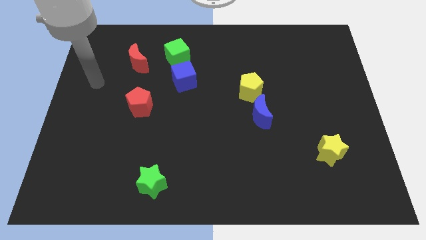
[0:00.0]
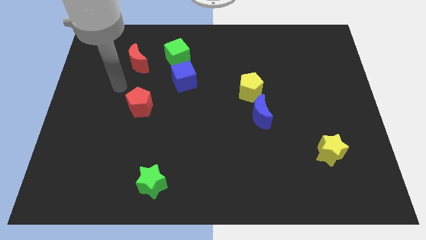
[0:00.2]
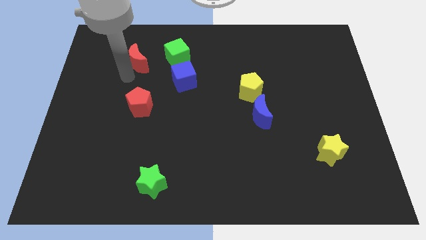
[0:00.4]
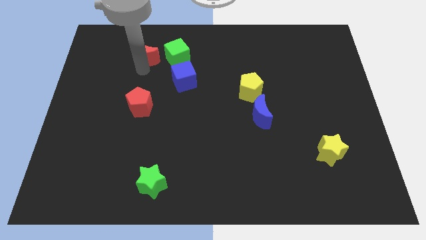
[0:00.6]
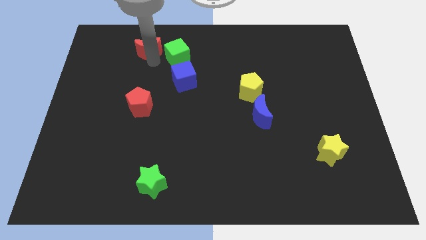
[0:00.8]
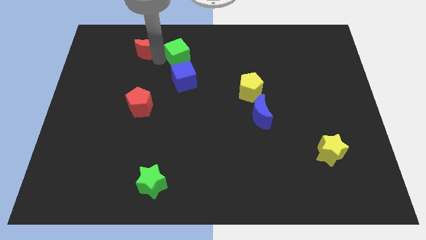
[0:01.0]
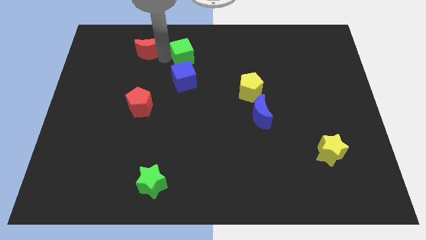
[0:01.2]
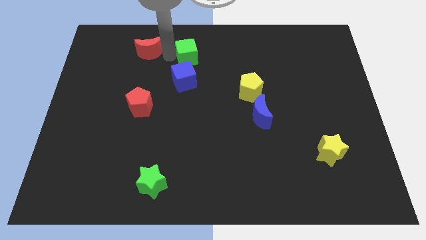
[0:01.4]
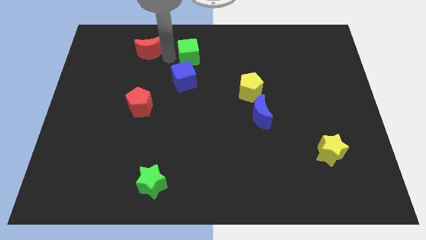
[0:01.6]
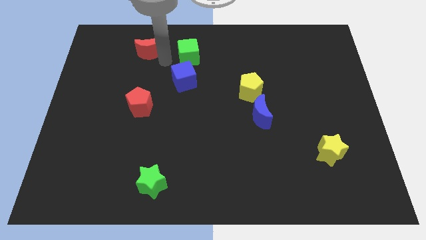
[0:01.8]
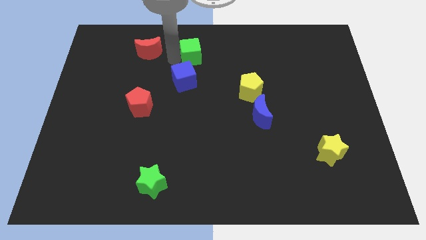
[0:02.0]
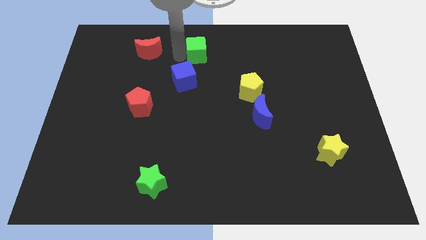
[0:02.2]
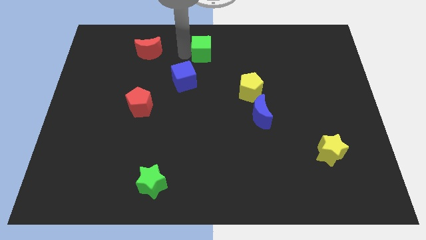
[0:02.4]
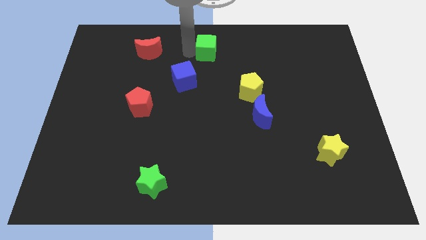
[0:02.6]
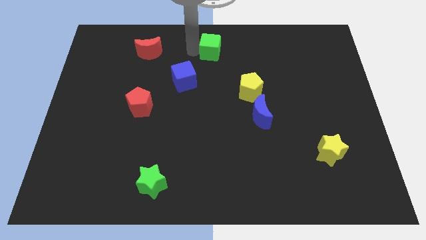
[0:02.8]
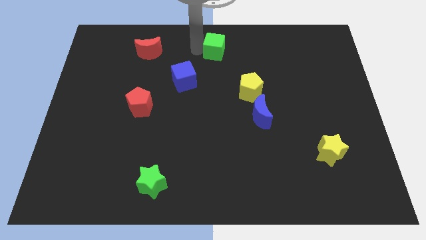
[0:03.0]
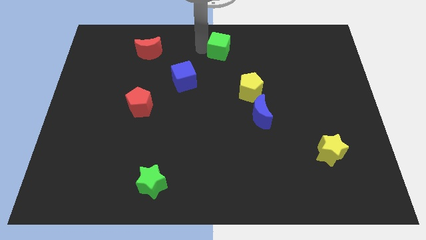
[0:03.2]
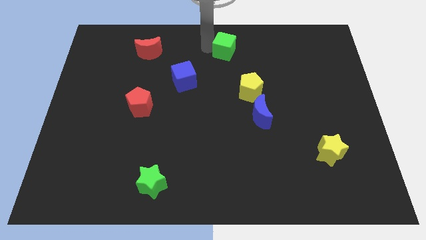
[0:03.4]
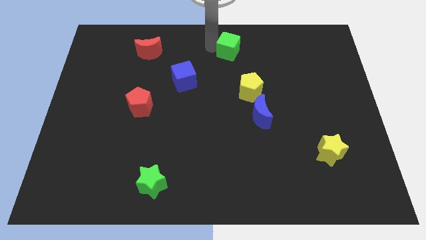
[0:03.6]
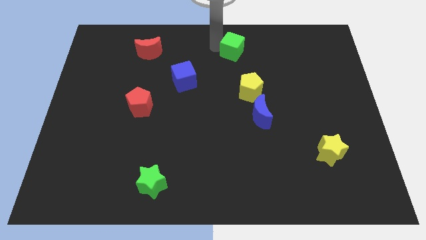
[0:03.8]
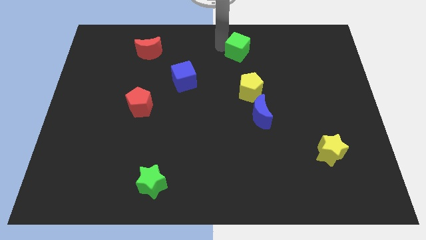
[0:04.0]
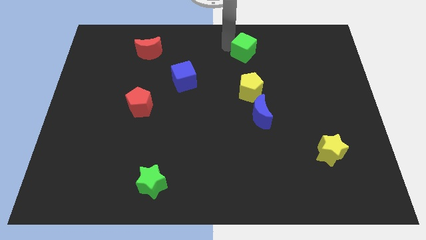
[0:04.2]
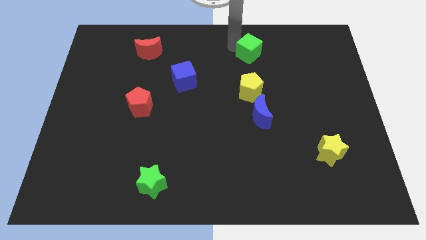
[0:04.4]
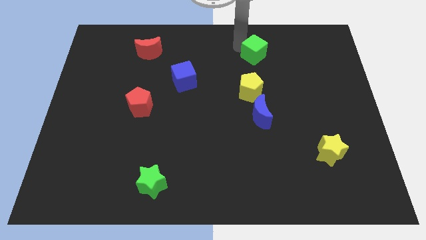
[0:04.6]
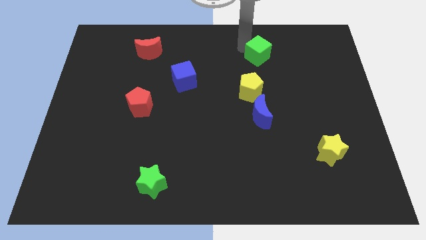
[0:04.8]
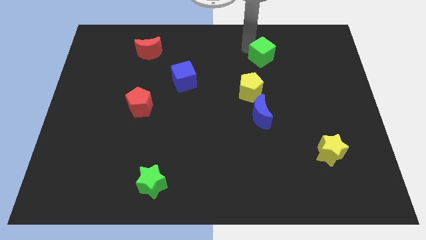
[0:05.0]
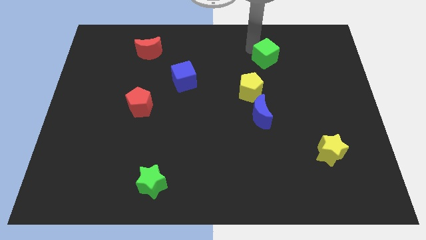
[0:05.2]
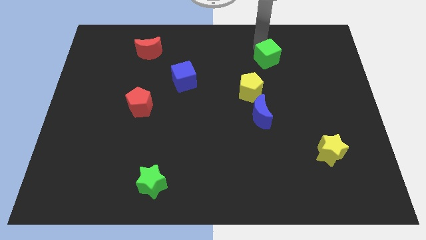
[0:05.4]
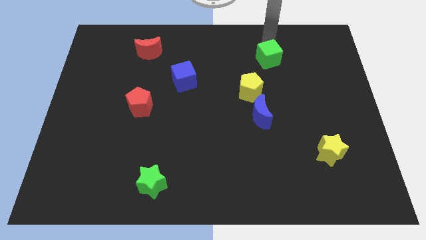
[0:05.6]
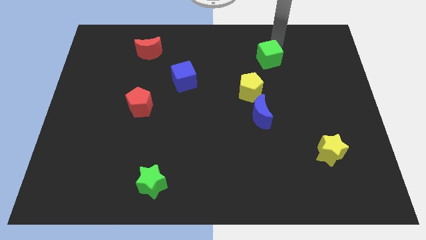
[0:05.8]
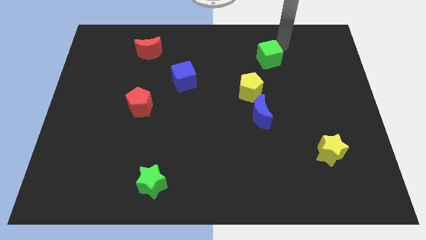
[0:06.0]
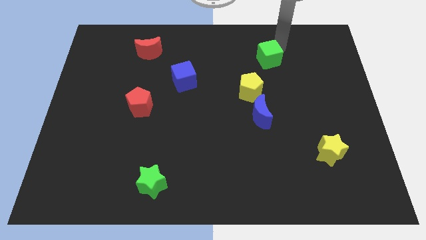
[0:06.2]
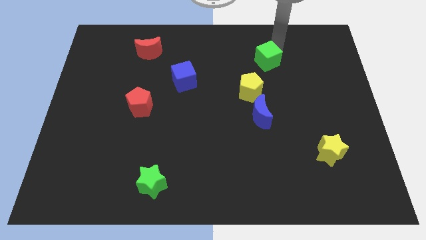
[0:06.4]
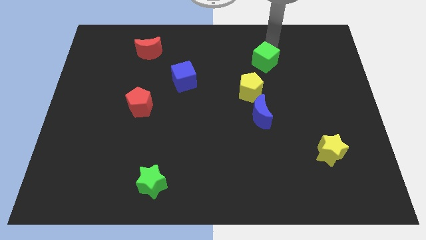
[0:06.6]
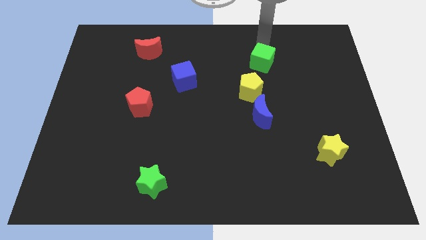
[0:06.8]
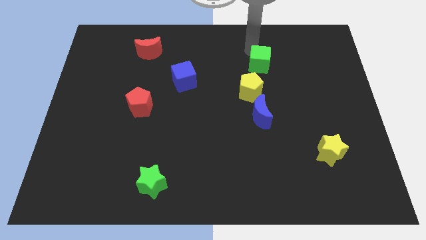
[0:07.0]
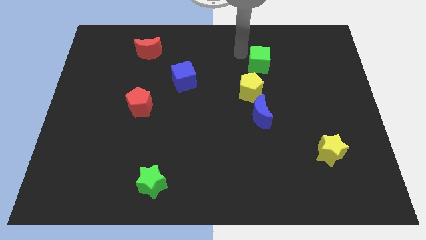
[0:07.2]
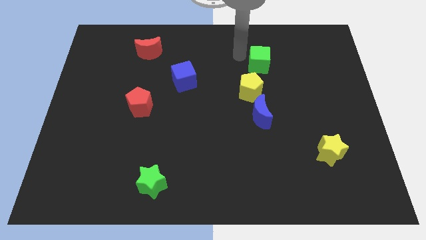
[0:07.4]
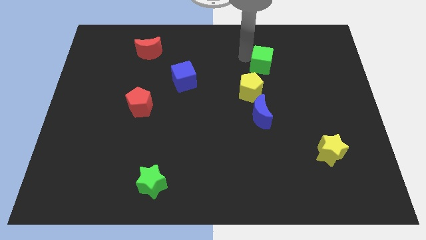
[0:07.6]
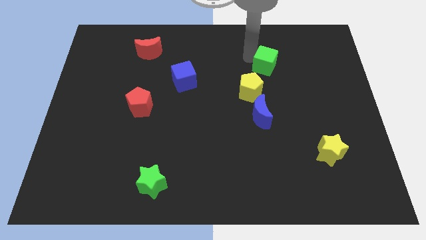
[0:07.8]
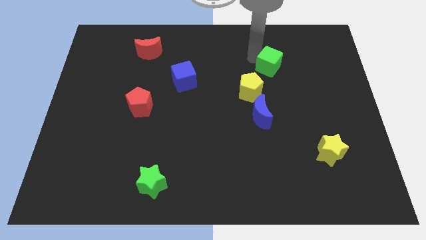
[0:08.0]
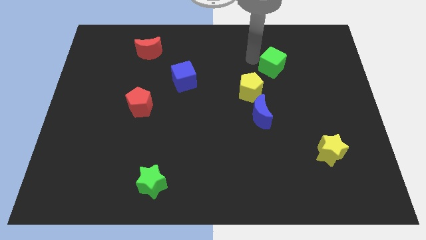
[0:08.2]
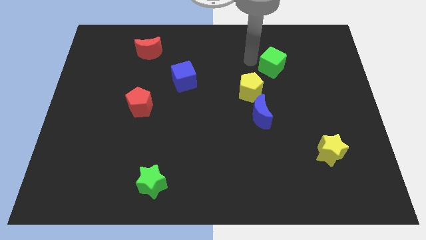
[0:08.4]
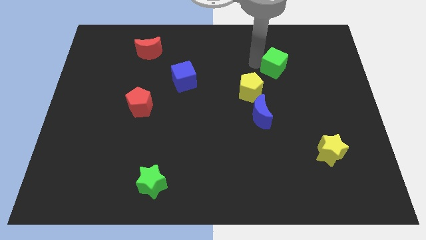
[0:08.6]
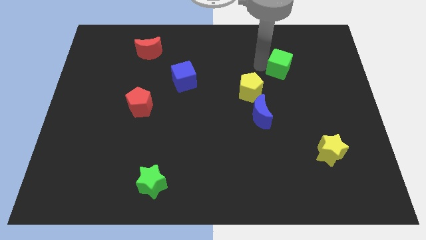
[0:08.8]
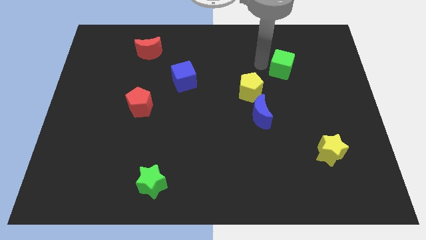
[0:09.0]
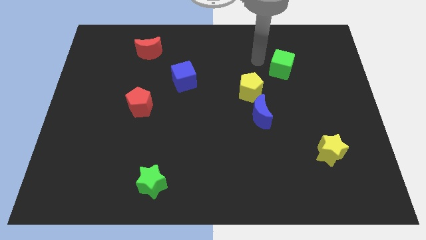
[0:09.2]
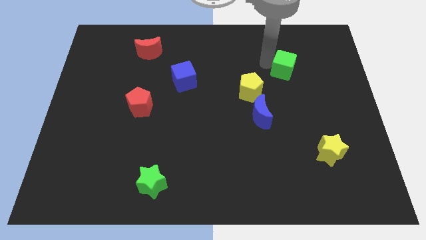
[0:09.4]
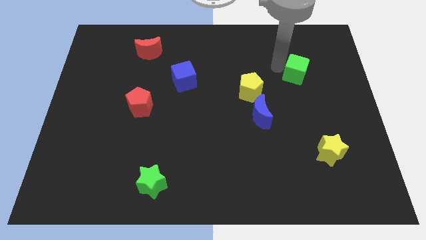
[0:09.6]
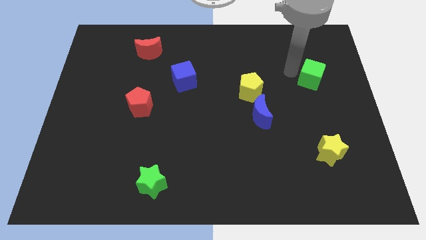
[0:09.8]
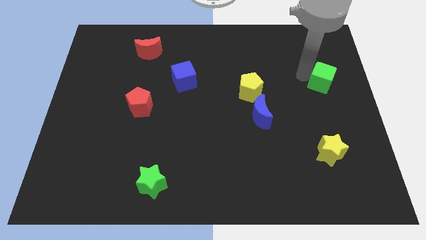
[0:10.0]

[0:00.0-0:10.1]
slide the green cube to the center right

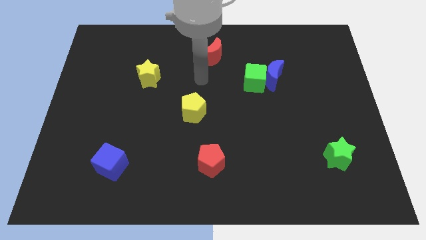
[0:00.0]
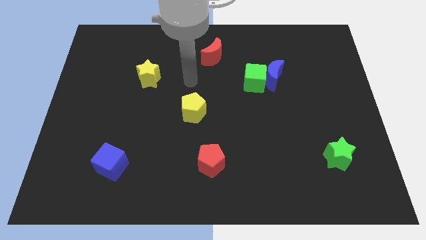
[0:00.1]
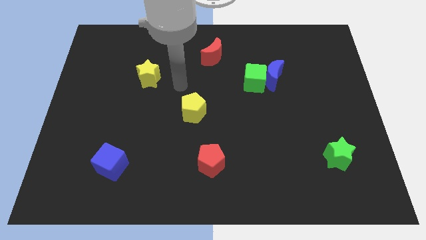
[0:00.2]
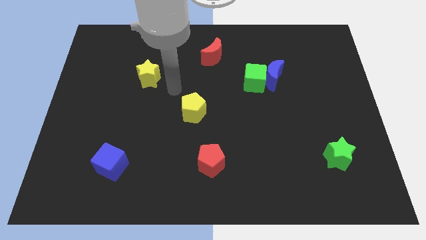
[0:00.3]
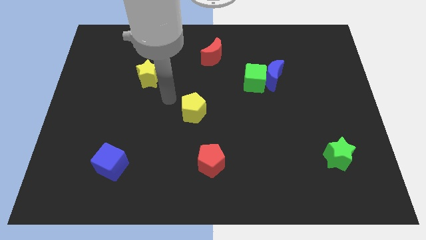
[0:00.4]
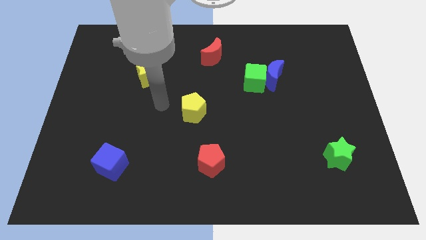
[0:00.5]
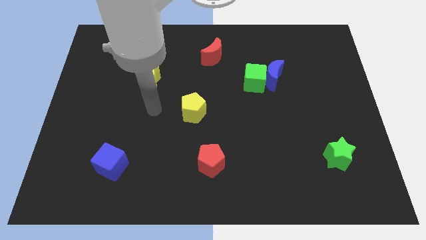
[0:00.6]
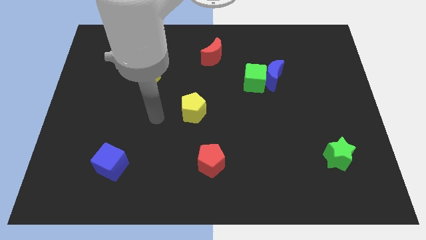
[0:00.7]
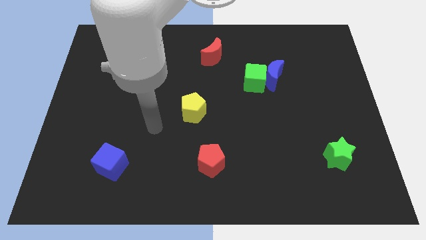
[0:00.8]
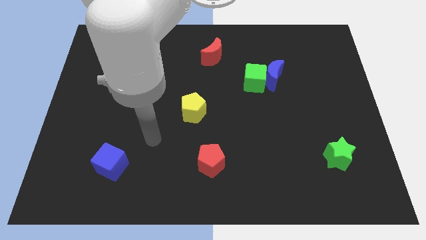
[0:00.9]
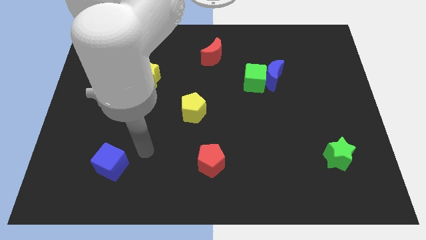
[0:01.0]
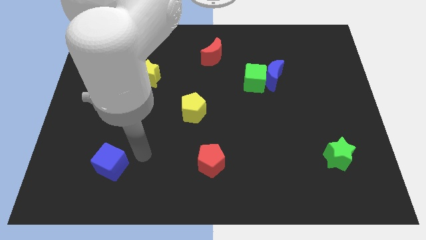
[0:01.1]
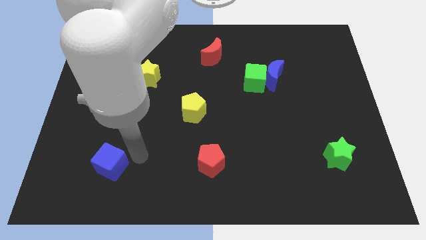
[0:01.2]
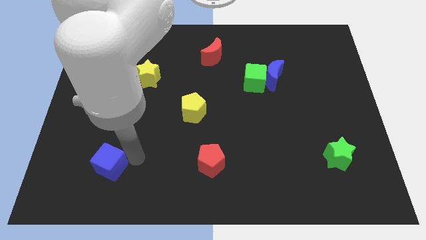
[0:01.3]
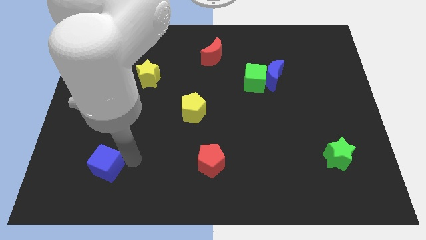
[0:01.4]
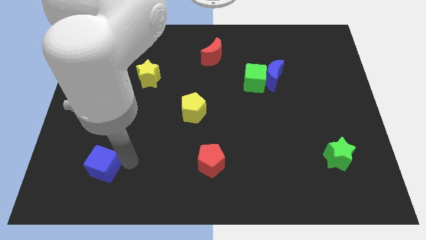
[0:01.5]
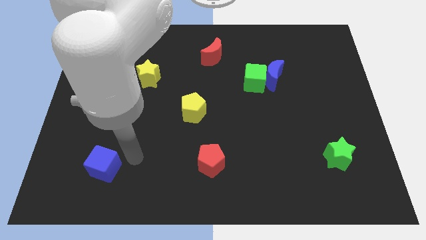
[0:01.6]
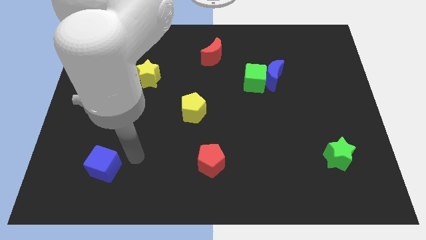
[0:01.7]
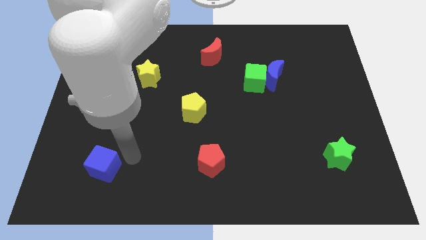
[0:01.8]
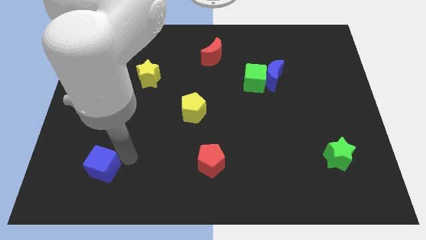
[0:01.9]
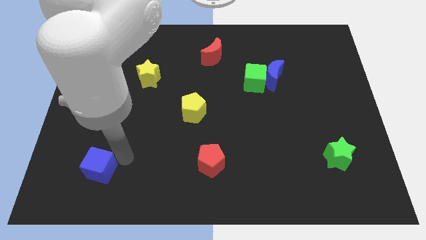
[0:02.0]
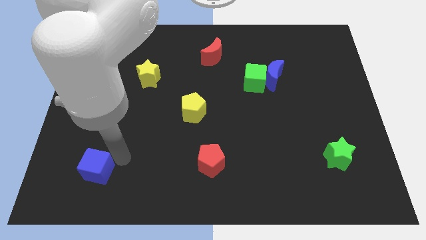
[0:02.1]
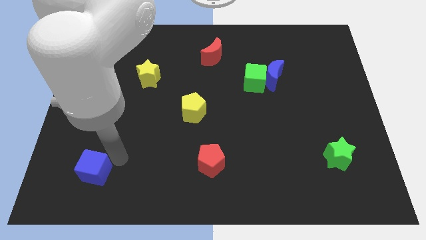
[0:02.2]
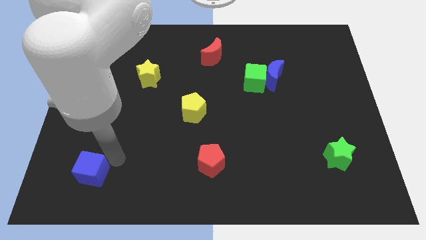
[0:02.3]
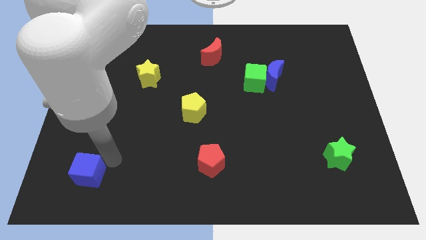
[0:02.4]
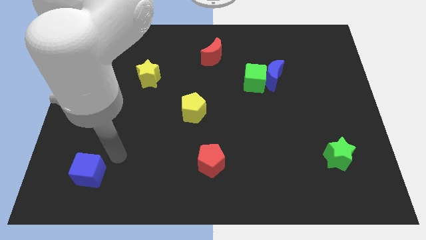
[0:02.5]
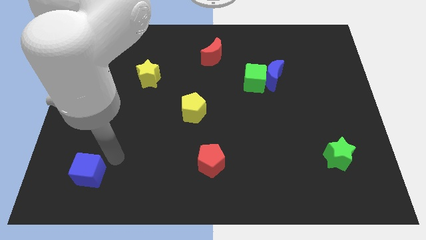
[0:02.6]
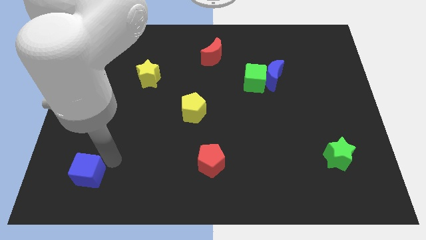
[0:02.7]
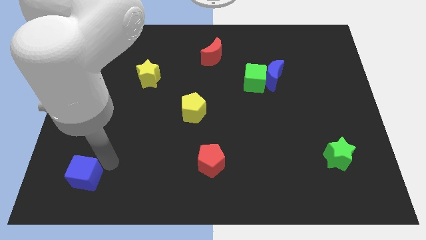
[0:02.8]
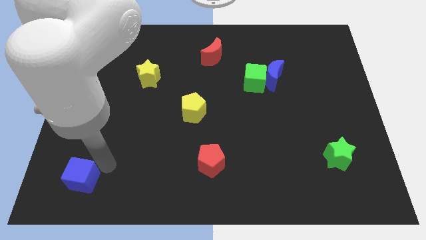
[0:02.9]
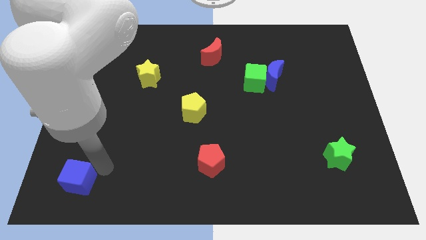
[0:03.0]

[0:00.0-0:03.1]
move the blue cube to the lower left corner
